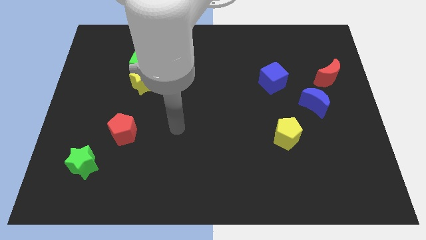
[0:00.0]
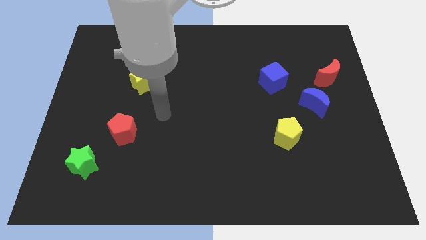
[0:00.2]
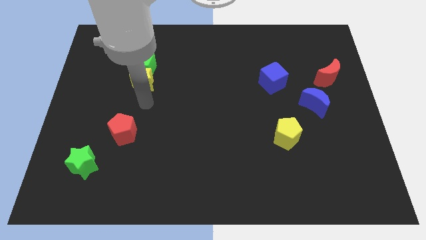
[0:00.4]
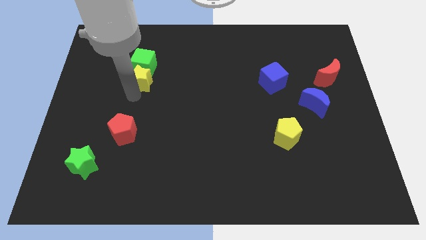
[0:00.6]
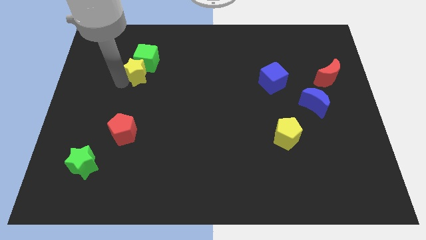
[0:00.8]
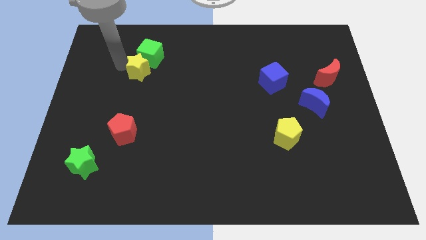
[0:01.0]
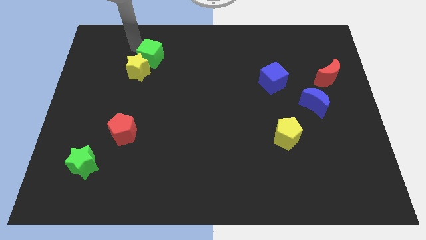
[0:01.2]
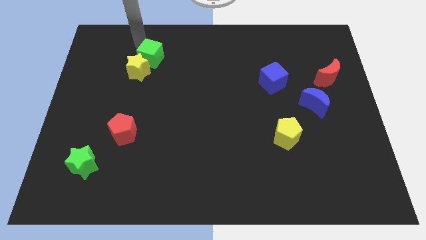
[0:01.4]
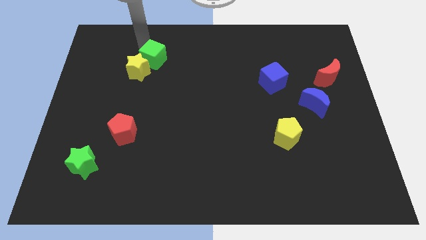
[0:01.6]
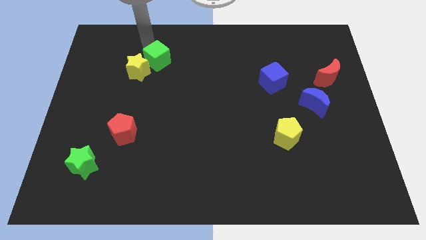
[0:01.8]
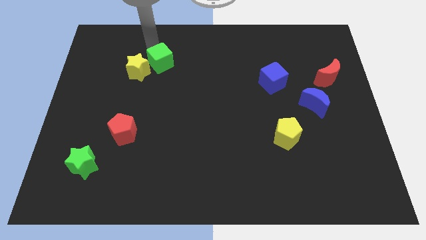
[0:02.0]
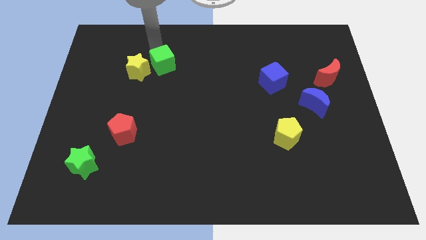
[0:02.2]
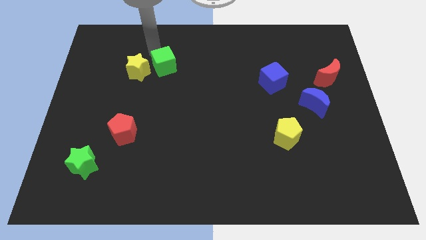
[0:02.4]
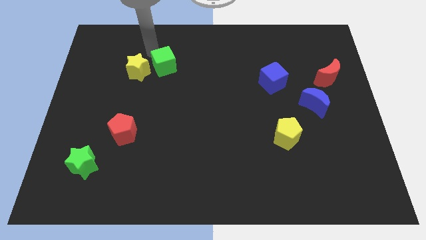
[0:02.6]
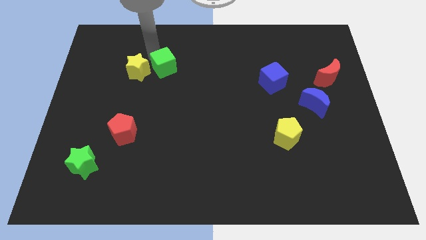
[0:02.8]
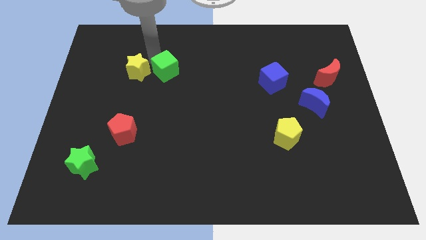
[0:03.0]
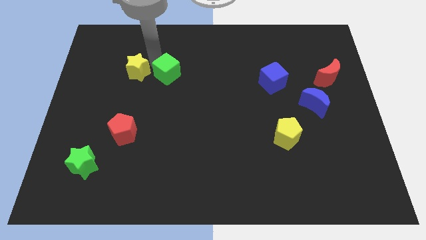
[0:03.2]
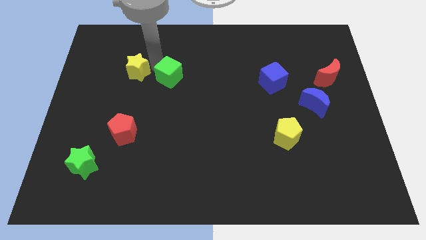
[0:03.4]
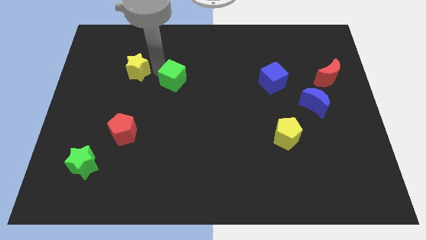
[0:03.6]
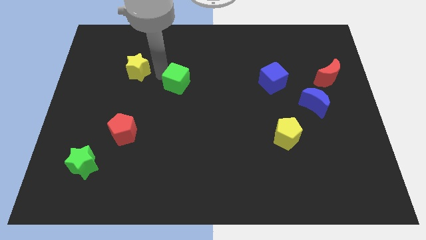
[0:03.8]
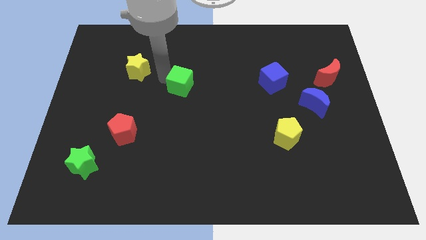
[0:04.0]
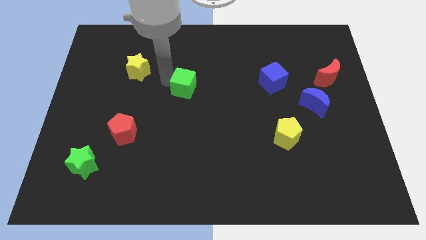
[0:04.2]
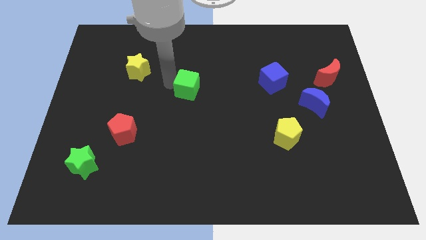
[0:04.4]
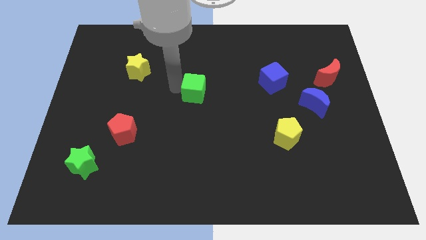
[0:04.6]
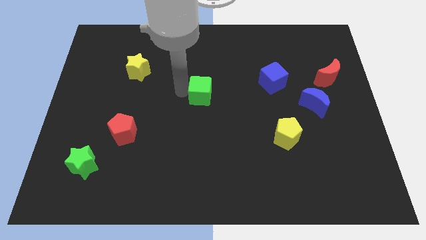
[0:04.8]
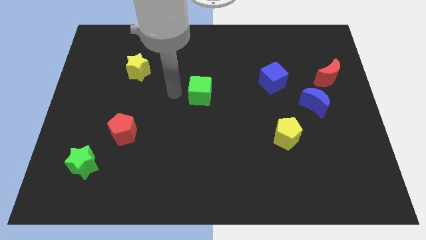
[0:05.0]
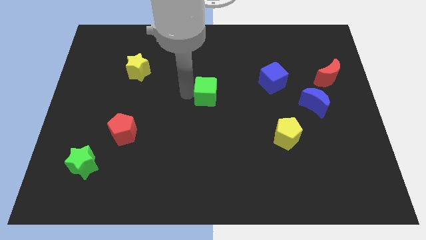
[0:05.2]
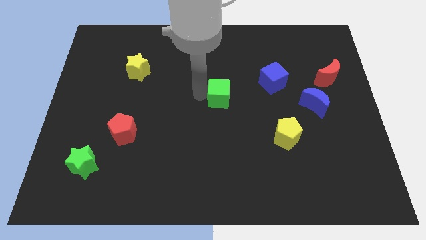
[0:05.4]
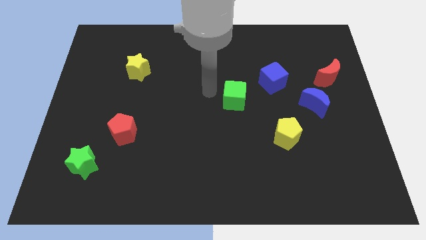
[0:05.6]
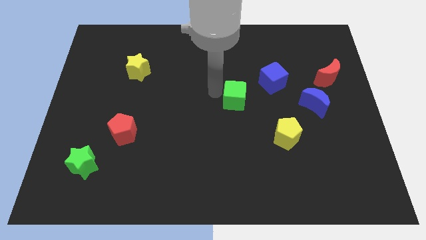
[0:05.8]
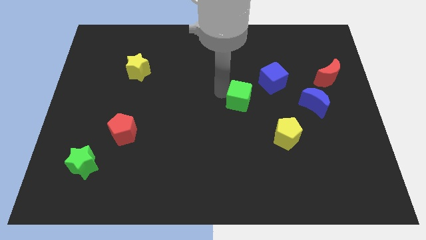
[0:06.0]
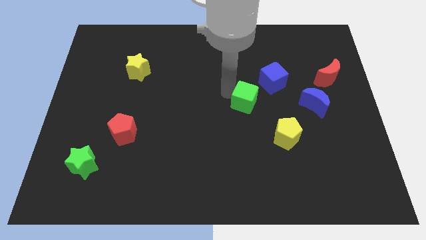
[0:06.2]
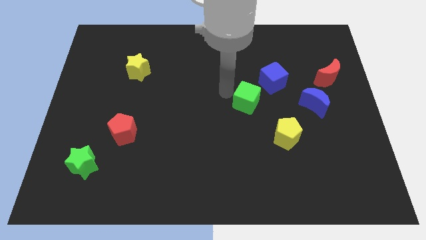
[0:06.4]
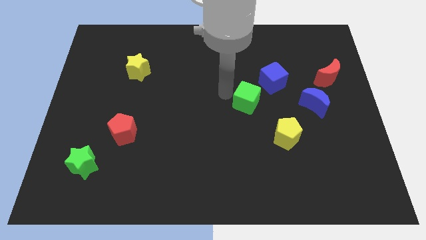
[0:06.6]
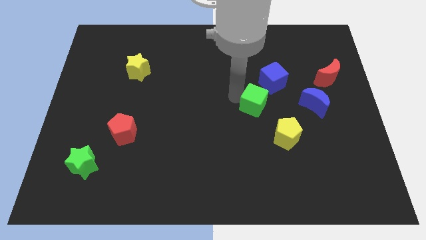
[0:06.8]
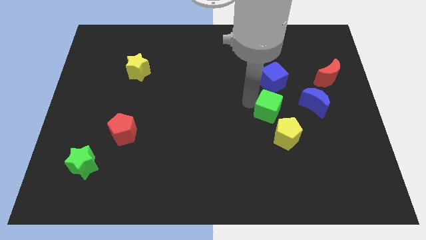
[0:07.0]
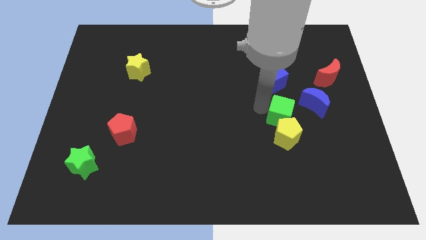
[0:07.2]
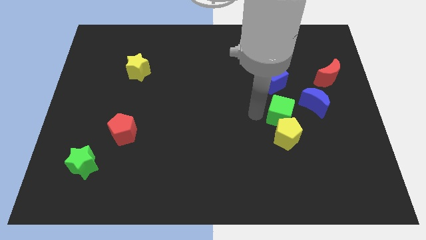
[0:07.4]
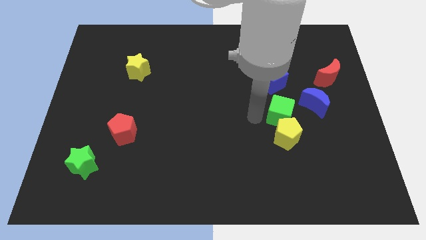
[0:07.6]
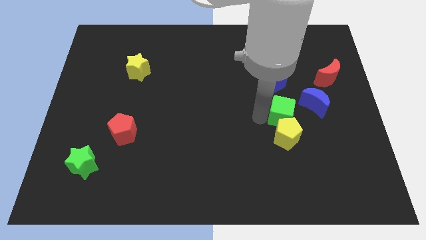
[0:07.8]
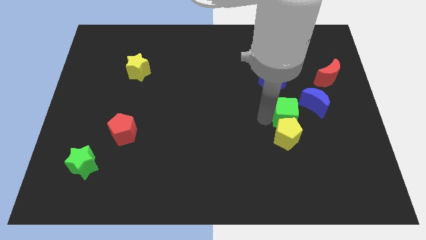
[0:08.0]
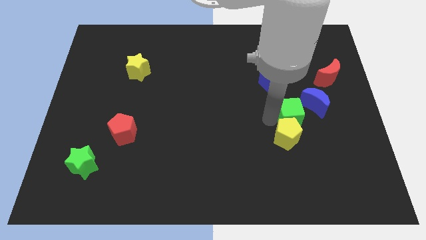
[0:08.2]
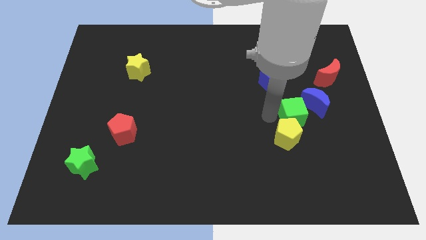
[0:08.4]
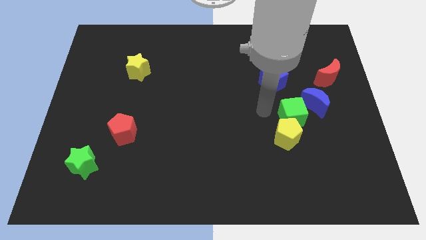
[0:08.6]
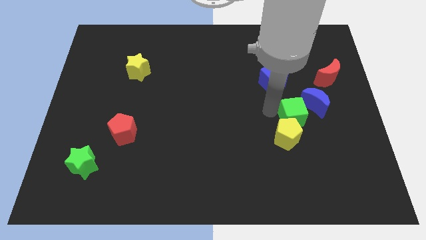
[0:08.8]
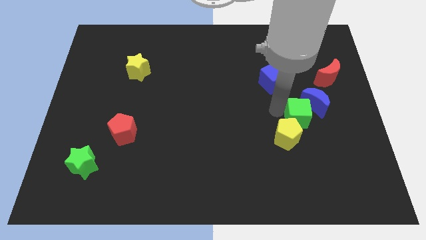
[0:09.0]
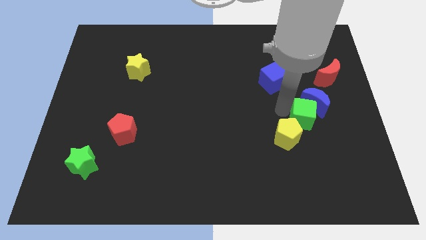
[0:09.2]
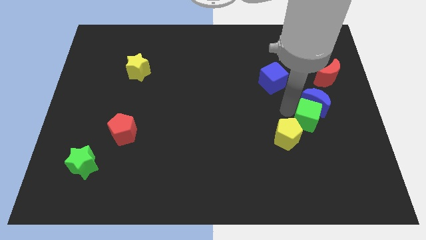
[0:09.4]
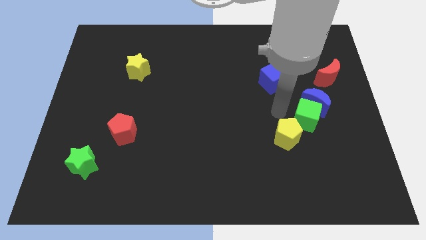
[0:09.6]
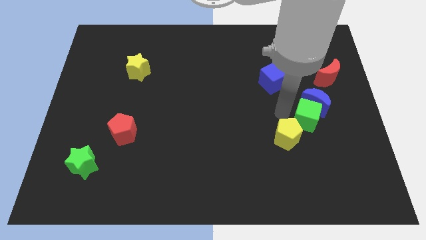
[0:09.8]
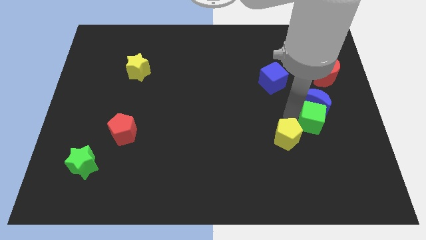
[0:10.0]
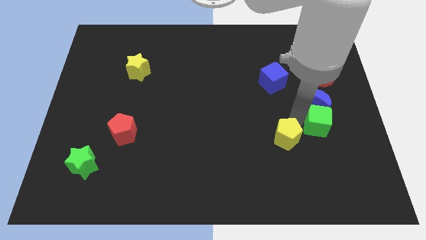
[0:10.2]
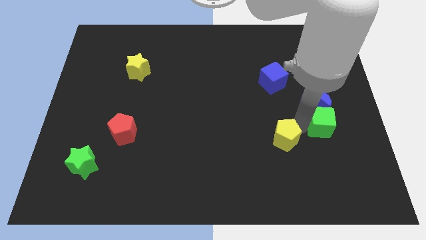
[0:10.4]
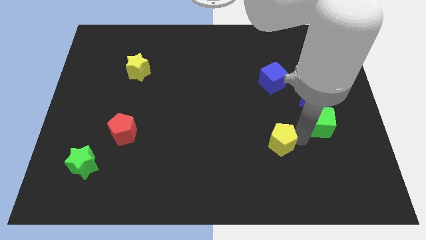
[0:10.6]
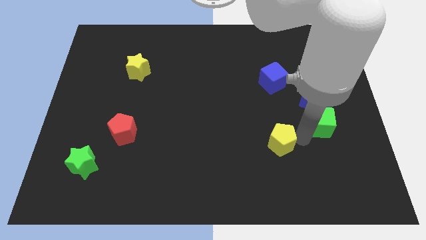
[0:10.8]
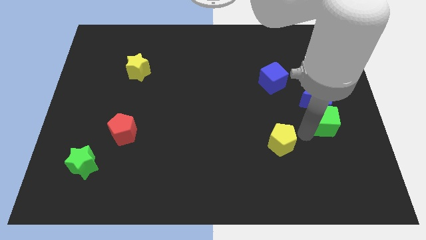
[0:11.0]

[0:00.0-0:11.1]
move the green cube to the bottom side of the red moon

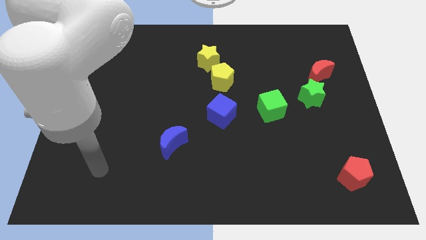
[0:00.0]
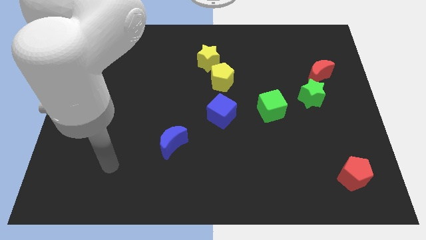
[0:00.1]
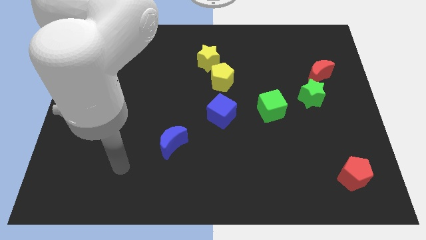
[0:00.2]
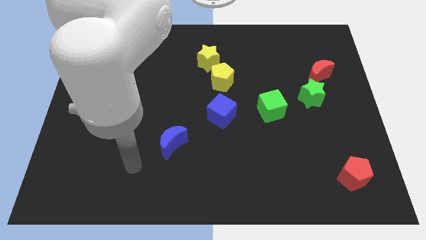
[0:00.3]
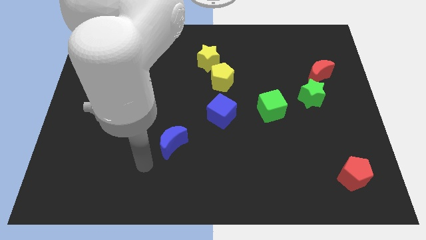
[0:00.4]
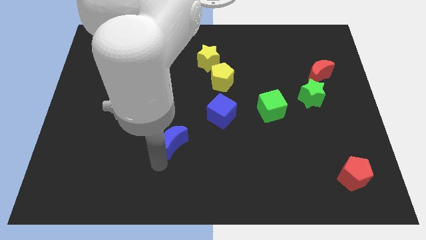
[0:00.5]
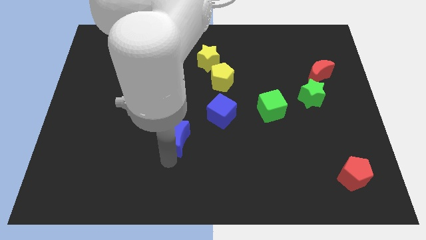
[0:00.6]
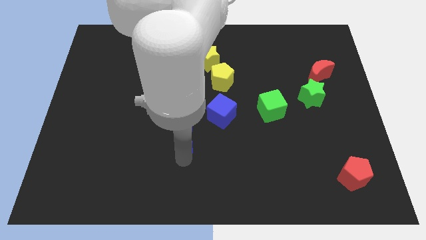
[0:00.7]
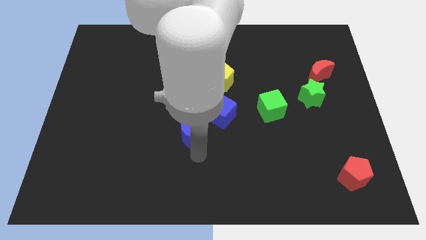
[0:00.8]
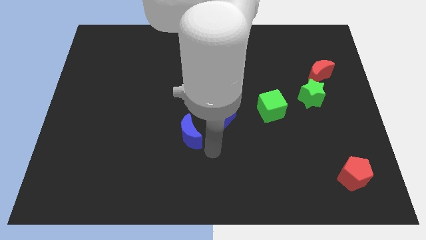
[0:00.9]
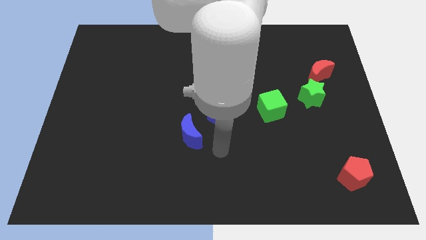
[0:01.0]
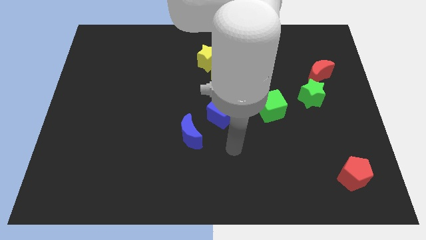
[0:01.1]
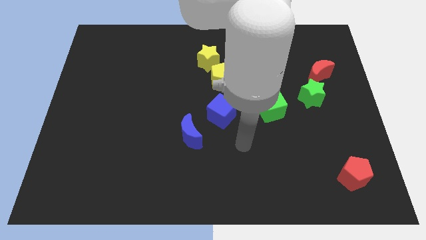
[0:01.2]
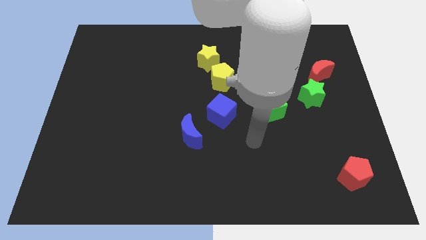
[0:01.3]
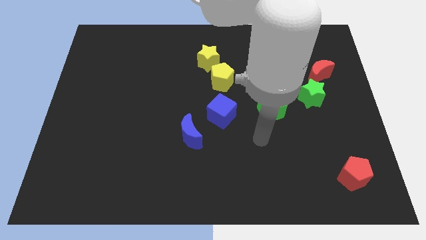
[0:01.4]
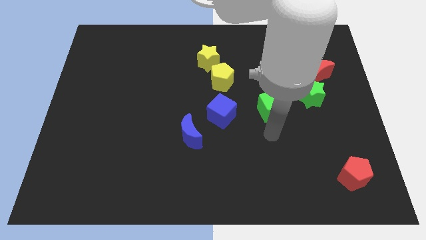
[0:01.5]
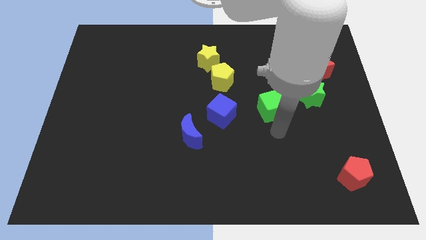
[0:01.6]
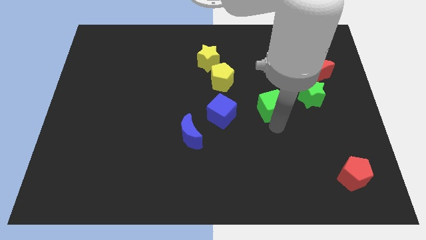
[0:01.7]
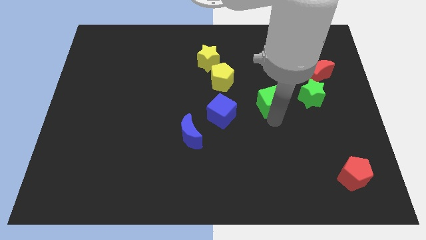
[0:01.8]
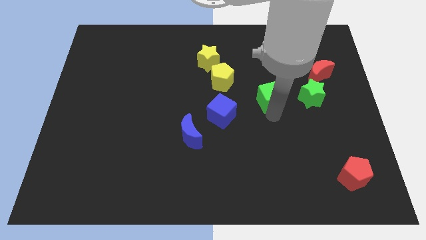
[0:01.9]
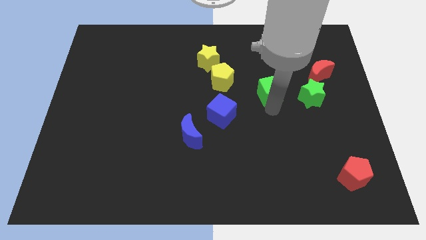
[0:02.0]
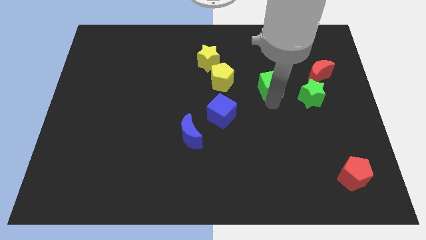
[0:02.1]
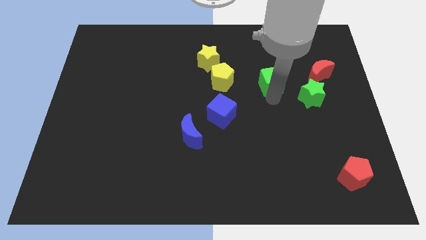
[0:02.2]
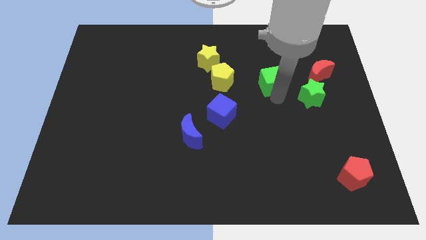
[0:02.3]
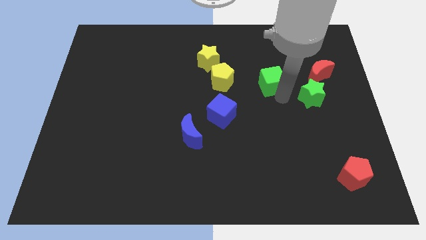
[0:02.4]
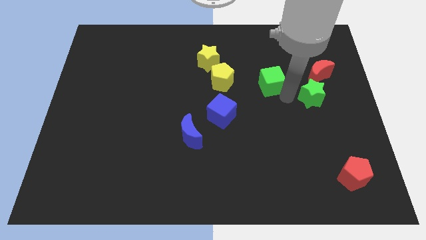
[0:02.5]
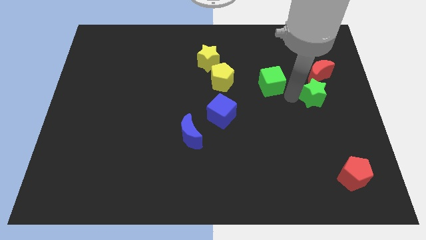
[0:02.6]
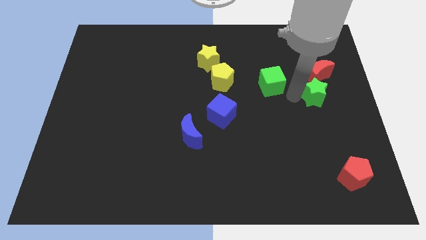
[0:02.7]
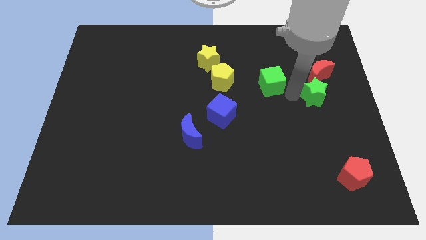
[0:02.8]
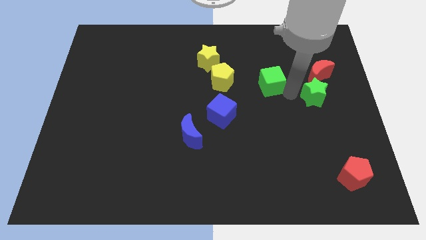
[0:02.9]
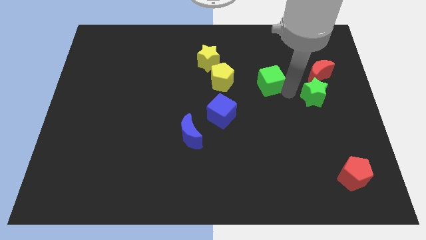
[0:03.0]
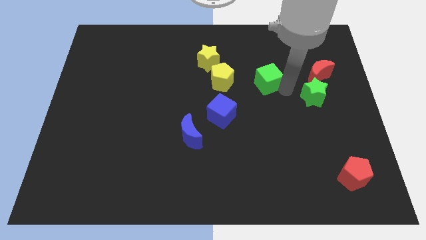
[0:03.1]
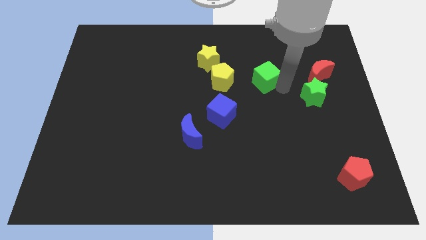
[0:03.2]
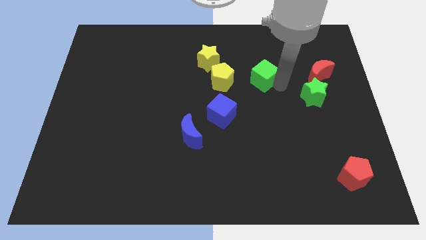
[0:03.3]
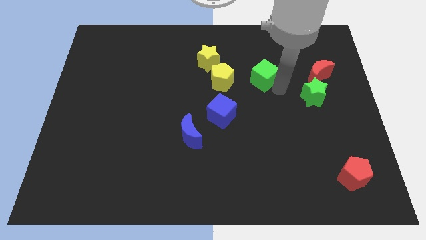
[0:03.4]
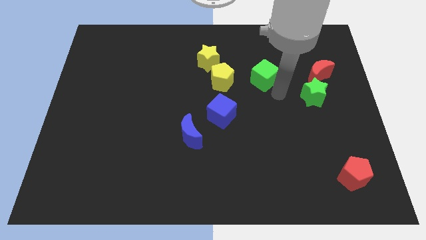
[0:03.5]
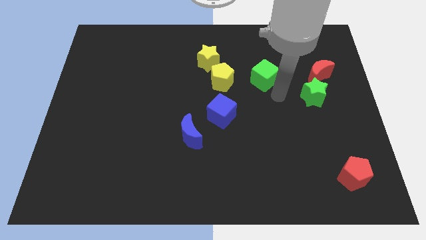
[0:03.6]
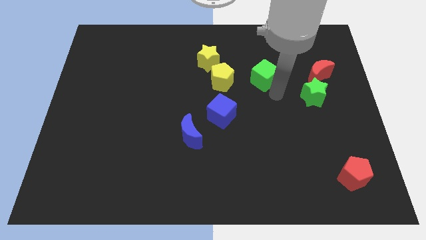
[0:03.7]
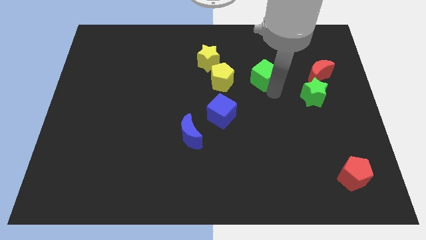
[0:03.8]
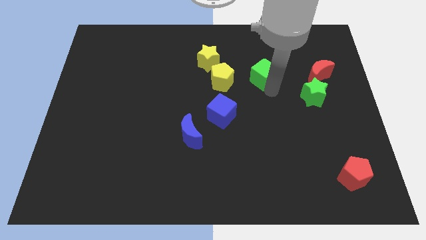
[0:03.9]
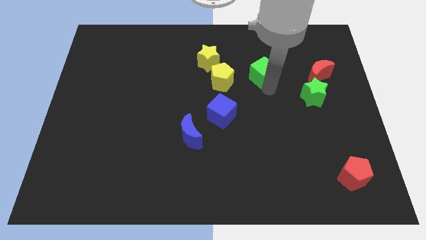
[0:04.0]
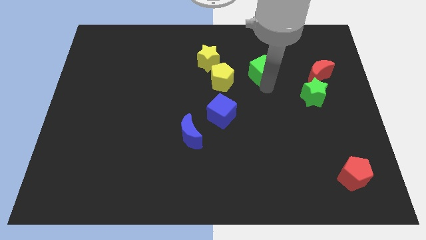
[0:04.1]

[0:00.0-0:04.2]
move the green cube right of the yellow star
